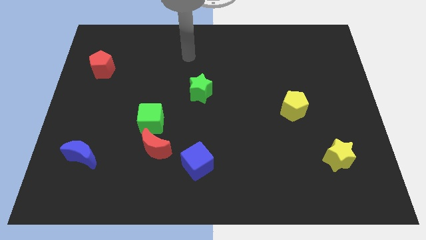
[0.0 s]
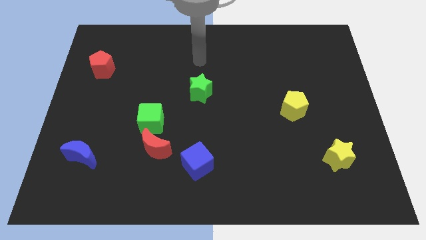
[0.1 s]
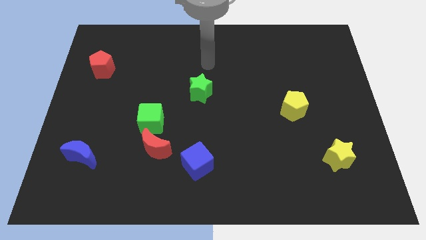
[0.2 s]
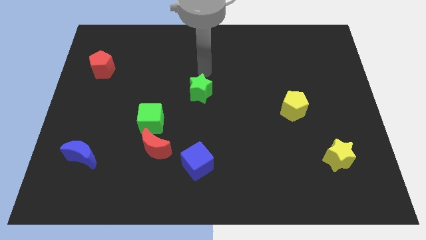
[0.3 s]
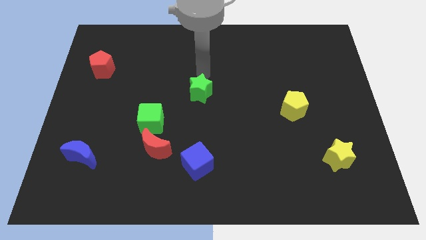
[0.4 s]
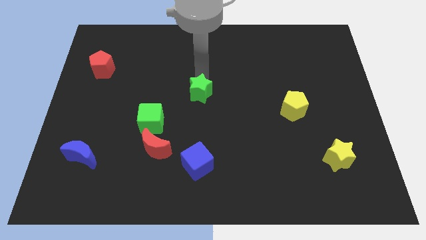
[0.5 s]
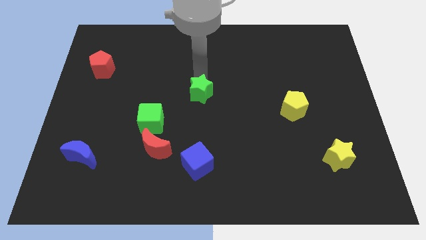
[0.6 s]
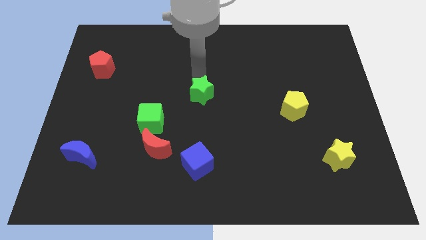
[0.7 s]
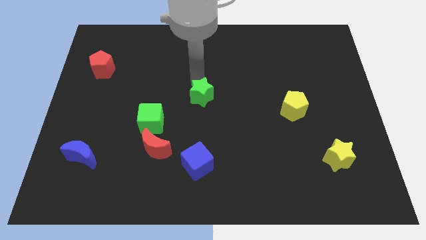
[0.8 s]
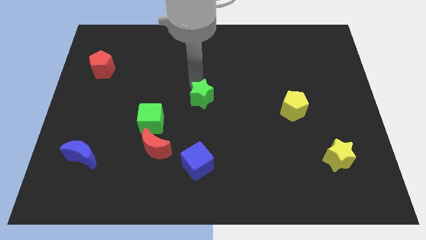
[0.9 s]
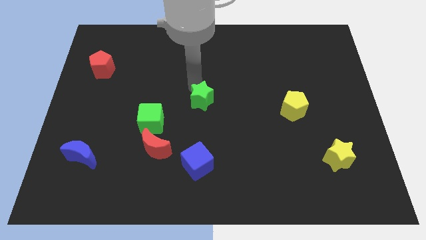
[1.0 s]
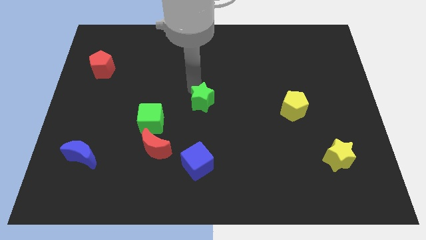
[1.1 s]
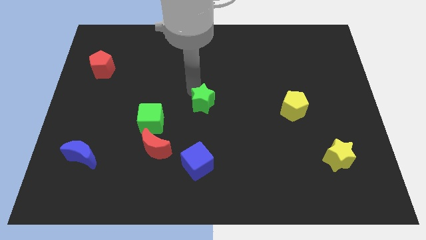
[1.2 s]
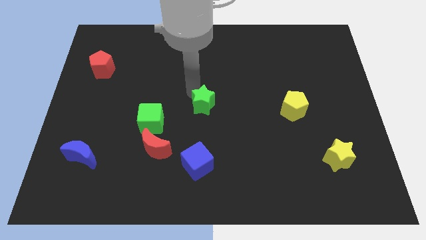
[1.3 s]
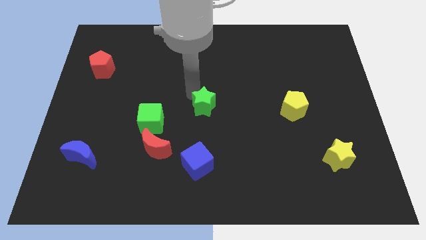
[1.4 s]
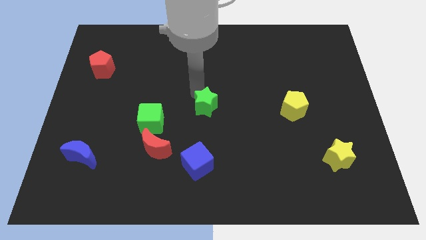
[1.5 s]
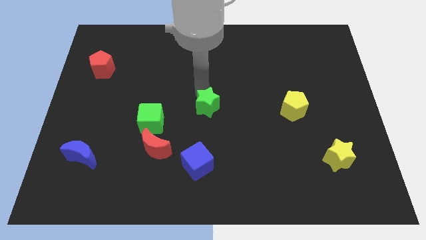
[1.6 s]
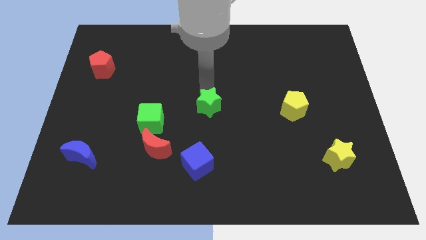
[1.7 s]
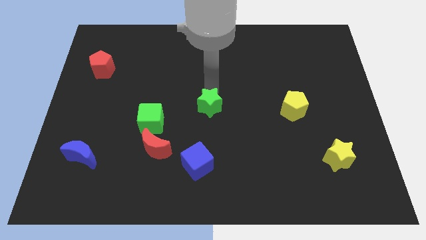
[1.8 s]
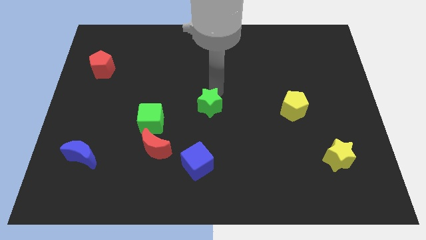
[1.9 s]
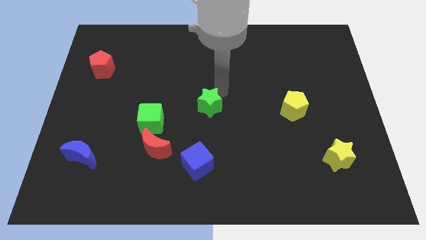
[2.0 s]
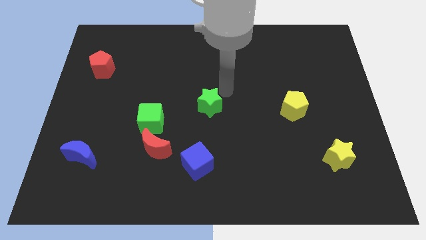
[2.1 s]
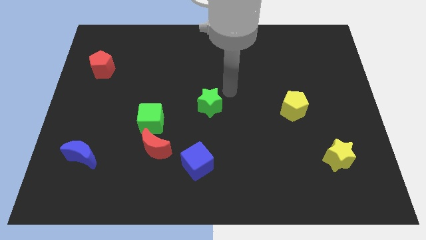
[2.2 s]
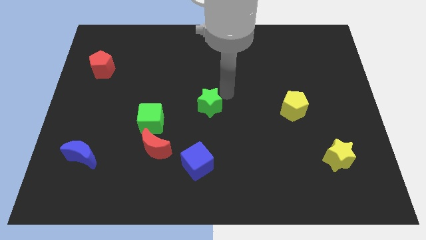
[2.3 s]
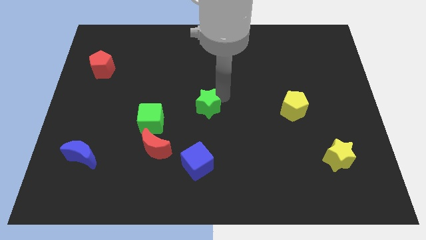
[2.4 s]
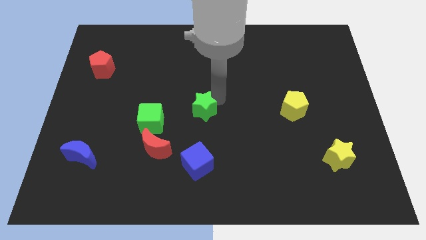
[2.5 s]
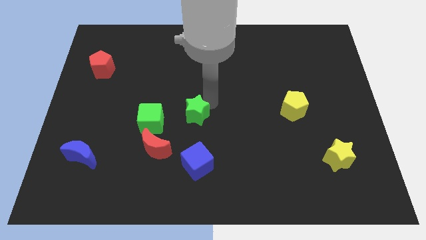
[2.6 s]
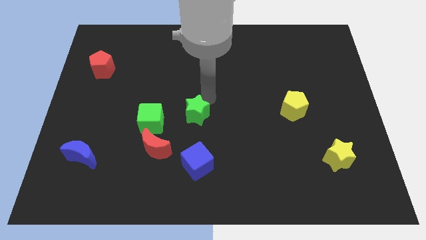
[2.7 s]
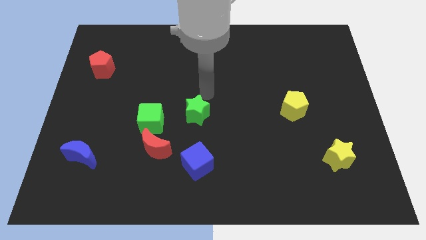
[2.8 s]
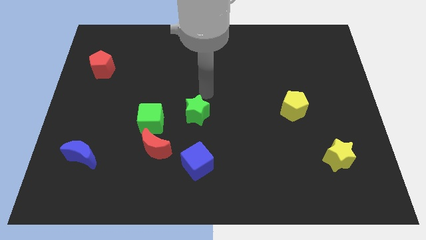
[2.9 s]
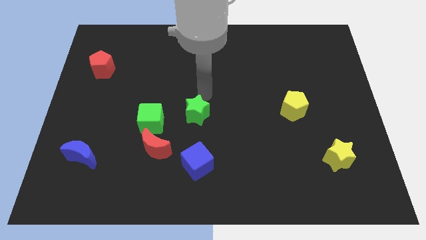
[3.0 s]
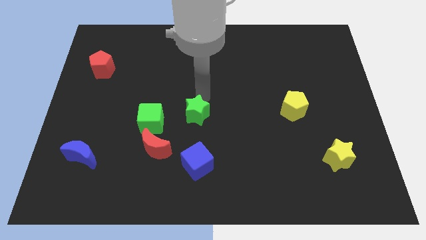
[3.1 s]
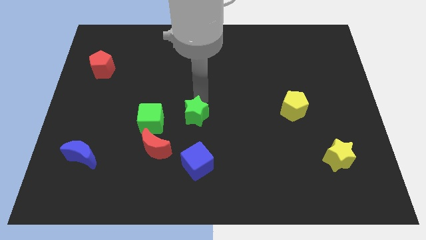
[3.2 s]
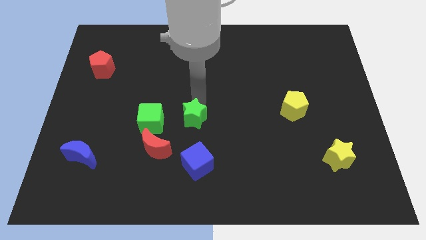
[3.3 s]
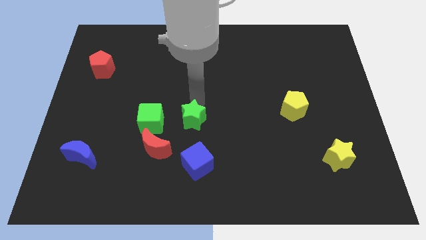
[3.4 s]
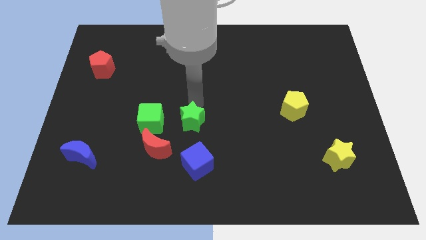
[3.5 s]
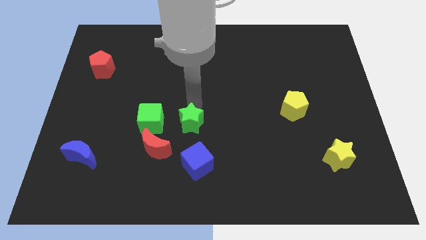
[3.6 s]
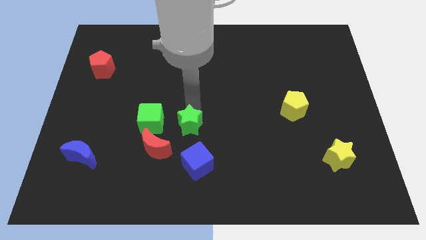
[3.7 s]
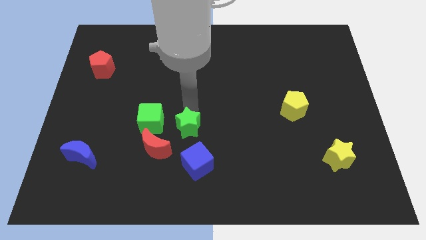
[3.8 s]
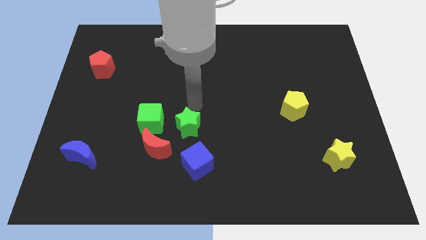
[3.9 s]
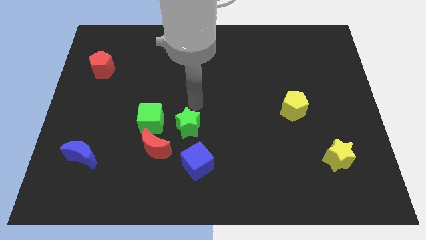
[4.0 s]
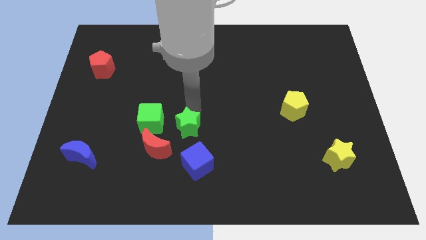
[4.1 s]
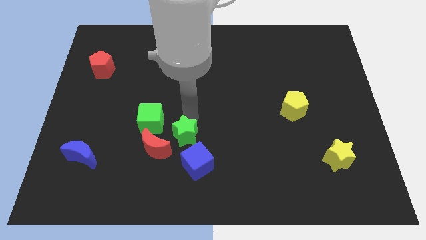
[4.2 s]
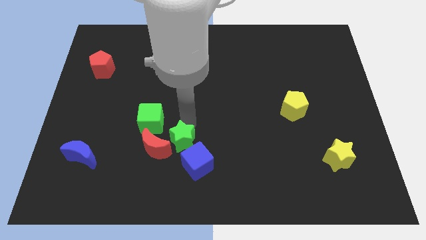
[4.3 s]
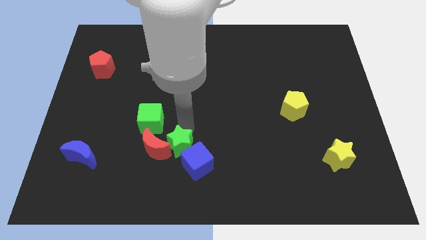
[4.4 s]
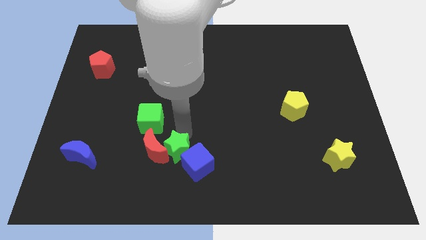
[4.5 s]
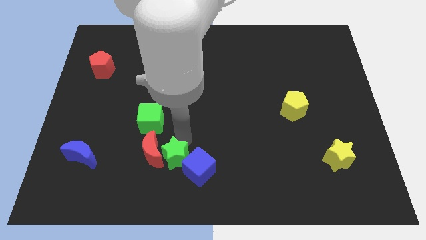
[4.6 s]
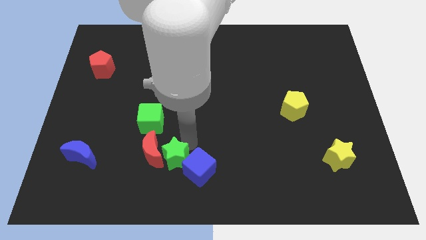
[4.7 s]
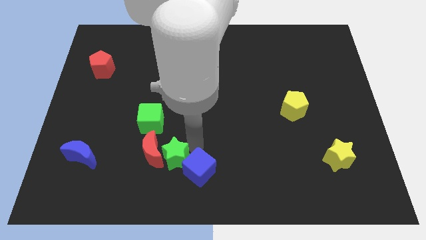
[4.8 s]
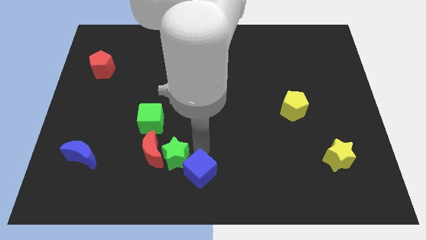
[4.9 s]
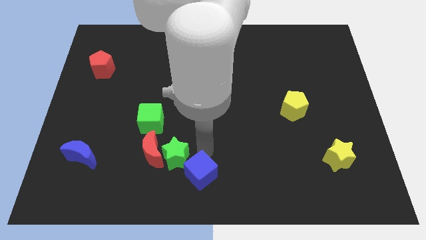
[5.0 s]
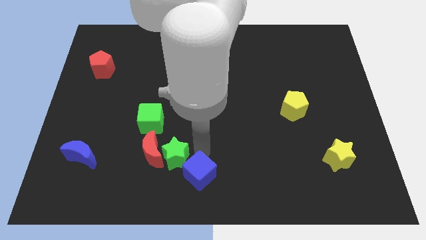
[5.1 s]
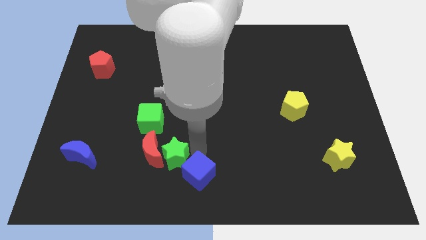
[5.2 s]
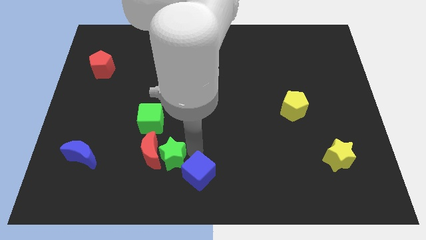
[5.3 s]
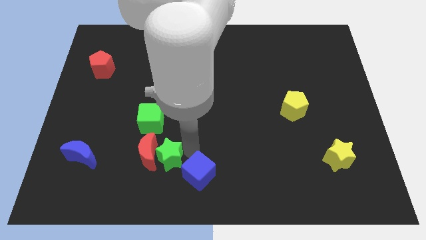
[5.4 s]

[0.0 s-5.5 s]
move the green star to the bottom of the green cube
